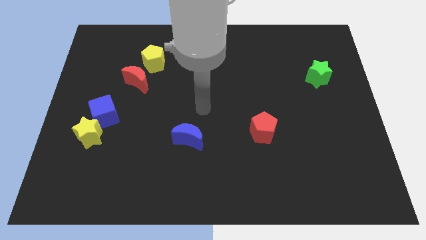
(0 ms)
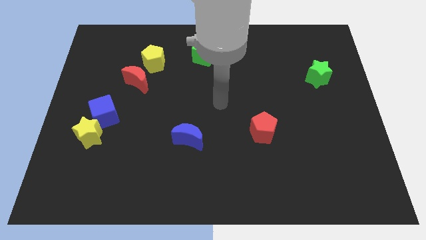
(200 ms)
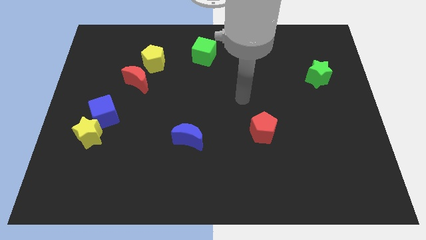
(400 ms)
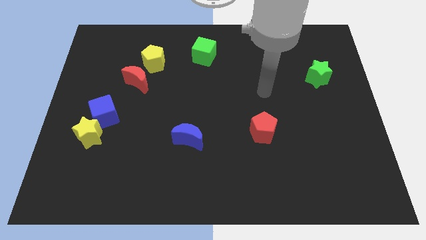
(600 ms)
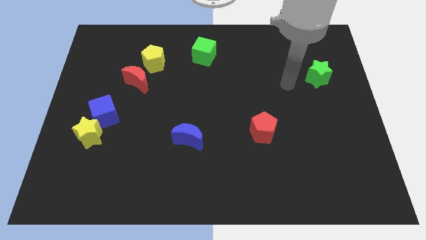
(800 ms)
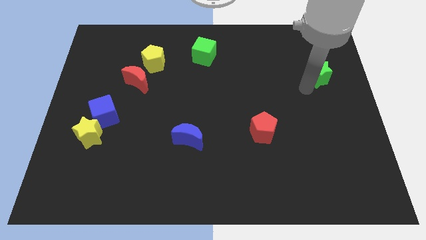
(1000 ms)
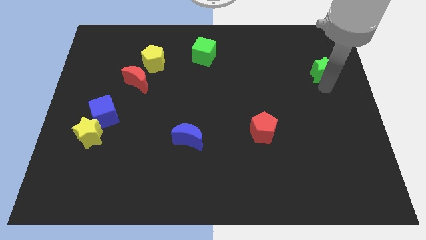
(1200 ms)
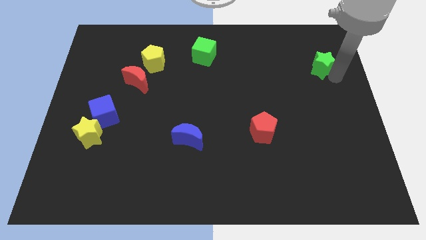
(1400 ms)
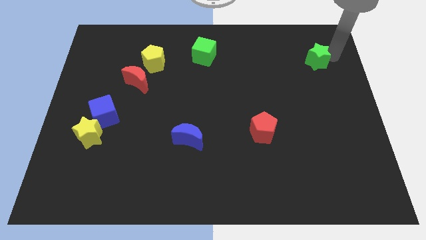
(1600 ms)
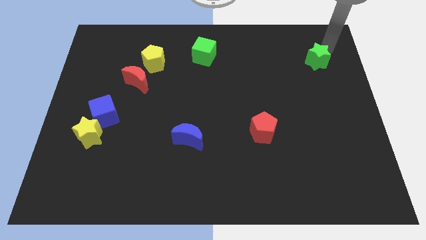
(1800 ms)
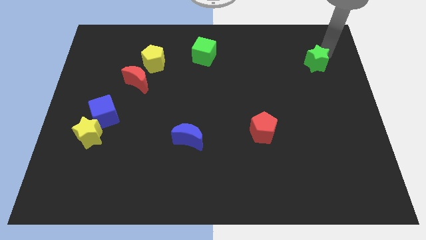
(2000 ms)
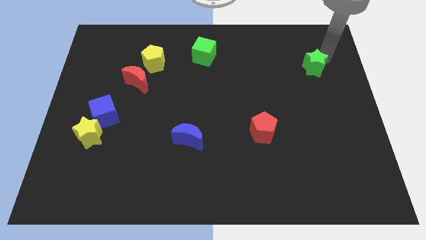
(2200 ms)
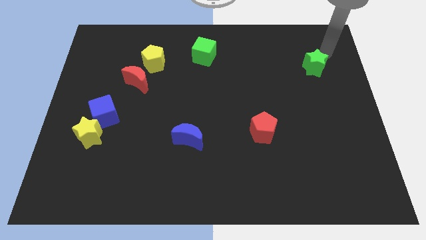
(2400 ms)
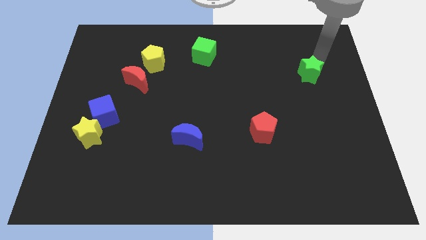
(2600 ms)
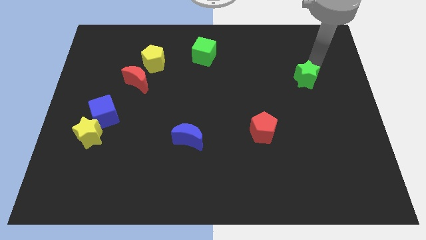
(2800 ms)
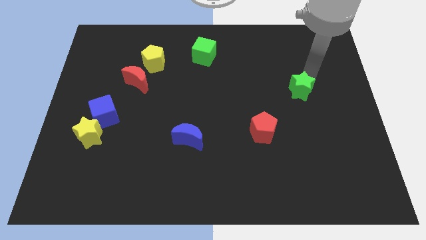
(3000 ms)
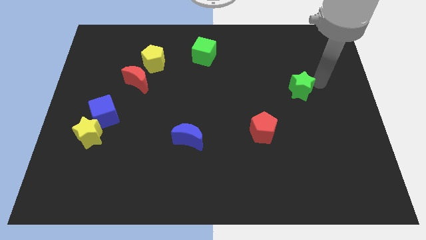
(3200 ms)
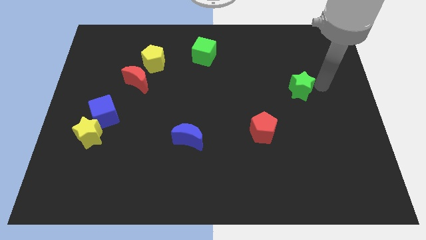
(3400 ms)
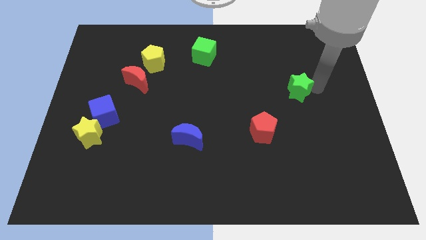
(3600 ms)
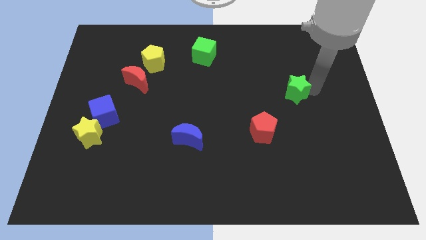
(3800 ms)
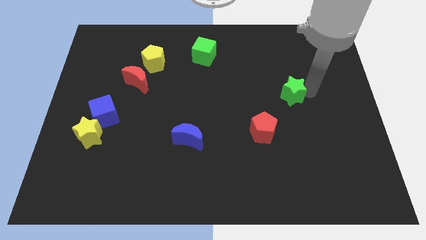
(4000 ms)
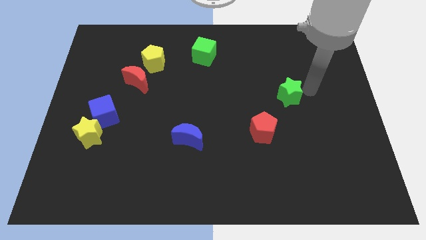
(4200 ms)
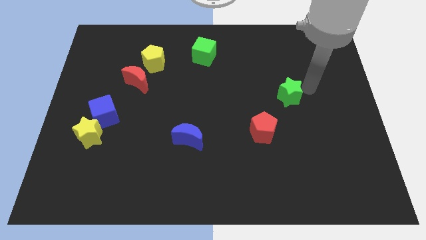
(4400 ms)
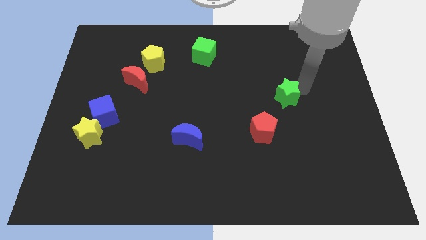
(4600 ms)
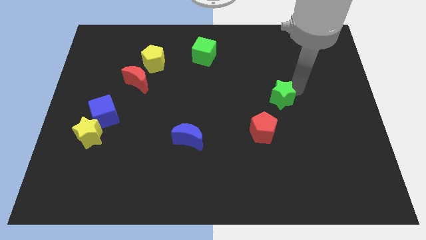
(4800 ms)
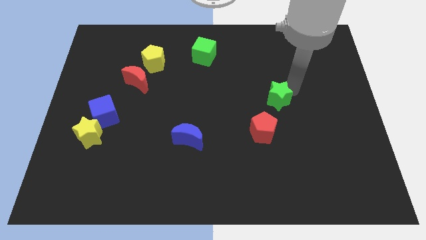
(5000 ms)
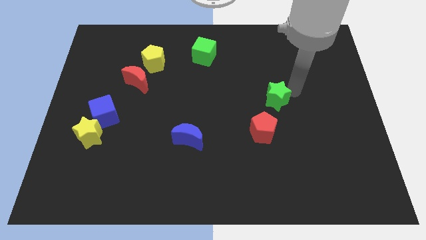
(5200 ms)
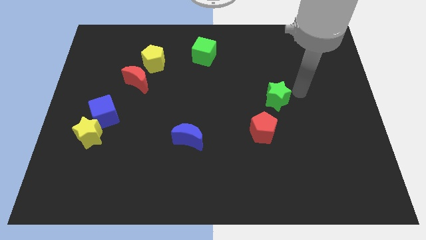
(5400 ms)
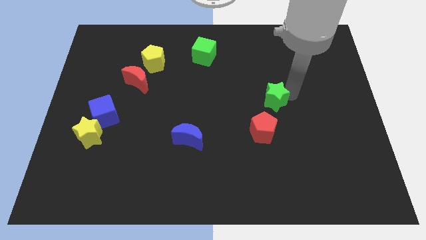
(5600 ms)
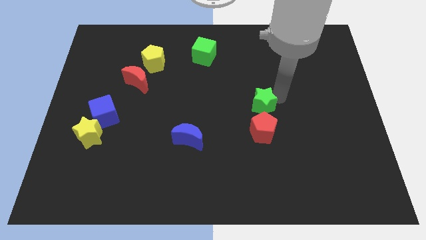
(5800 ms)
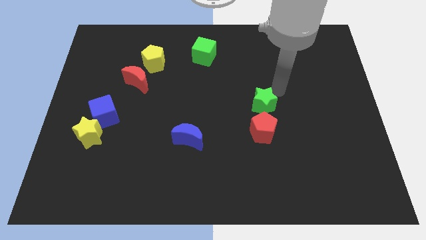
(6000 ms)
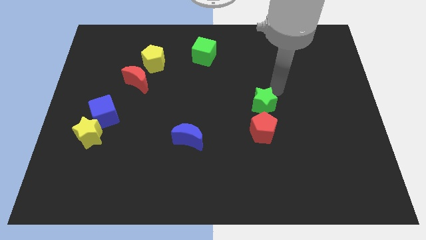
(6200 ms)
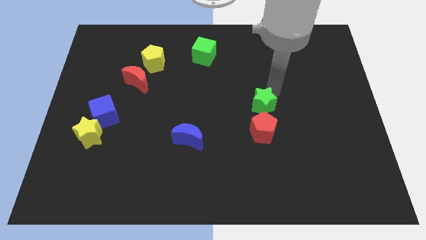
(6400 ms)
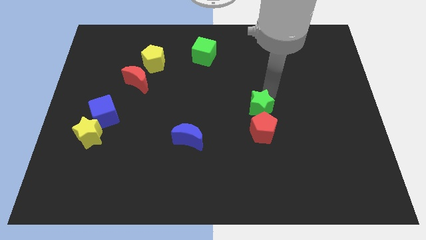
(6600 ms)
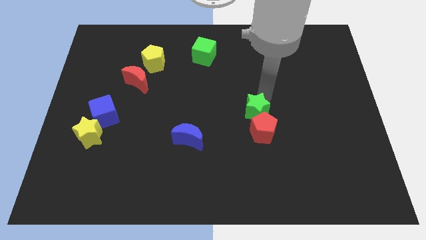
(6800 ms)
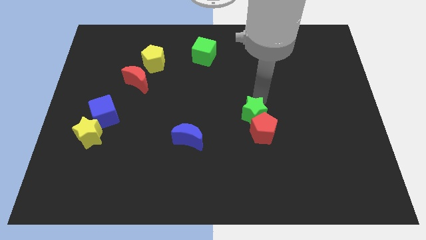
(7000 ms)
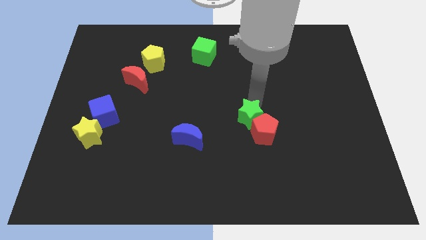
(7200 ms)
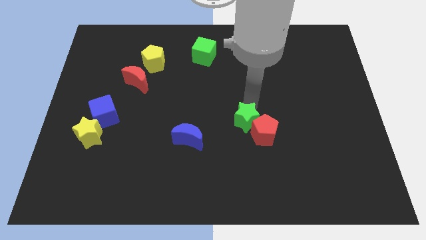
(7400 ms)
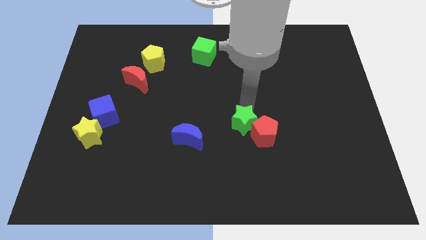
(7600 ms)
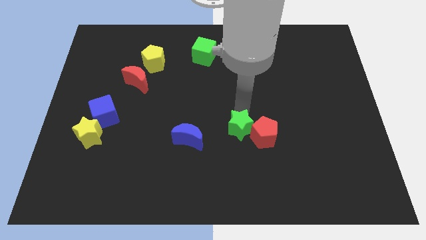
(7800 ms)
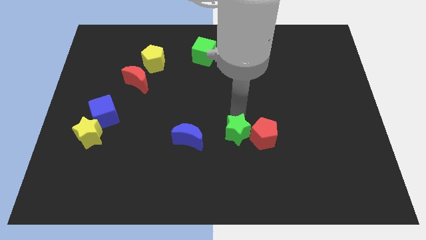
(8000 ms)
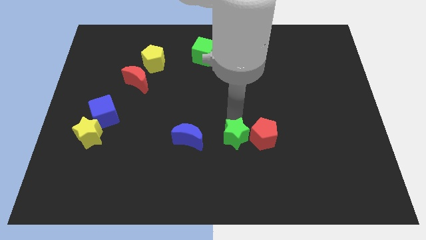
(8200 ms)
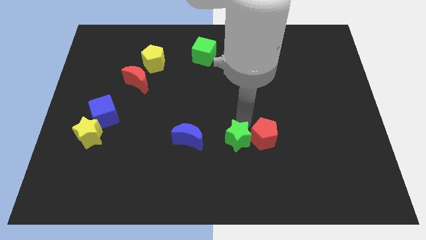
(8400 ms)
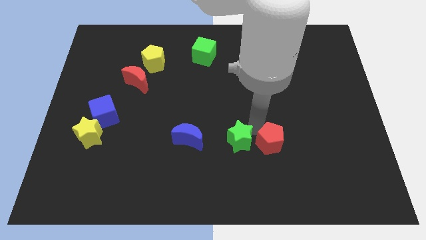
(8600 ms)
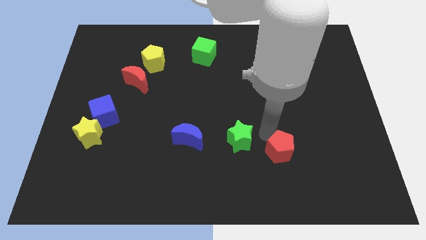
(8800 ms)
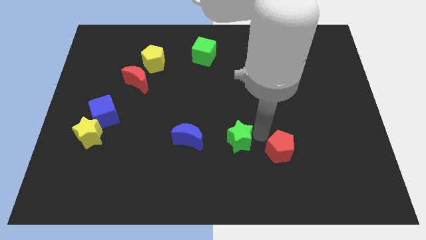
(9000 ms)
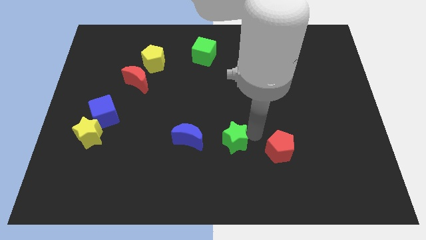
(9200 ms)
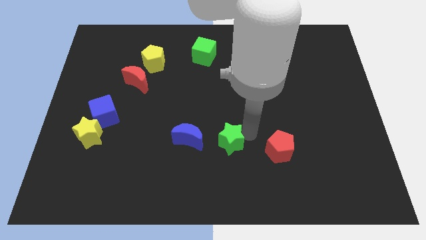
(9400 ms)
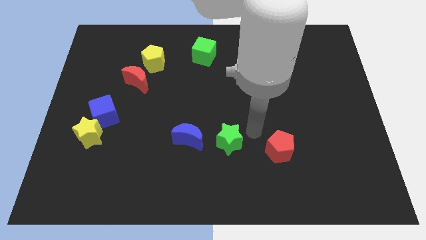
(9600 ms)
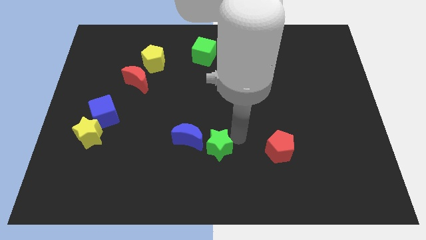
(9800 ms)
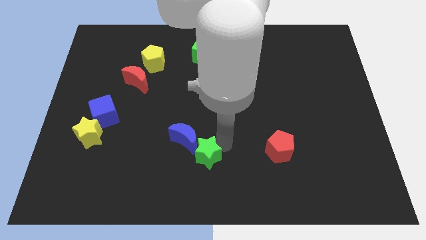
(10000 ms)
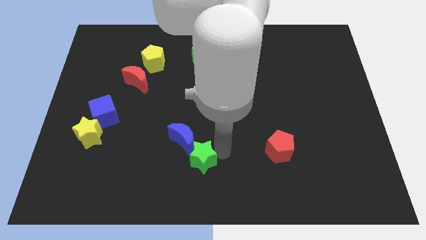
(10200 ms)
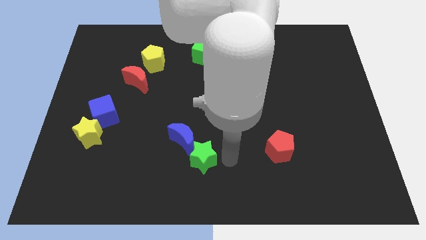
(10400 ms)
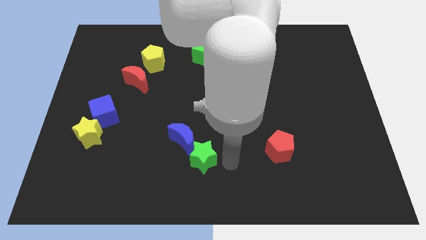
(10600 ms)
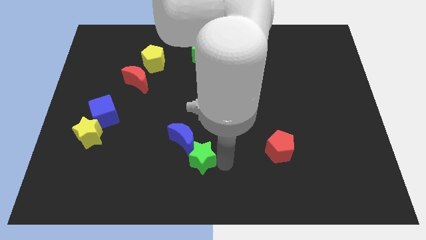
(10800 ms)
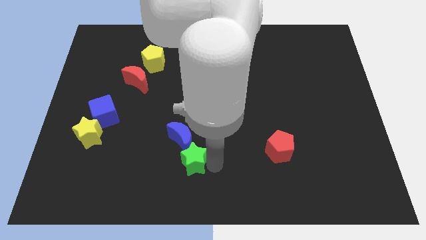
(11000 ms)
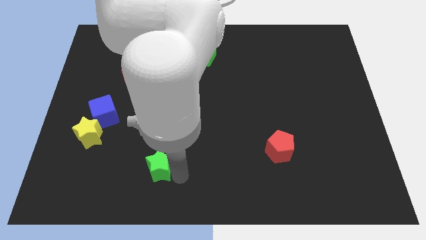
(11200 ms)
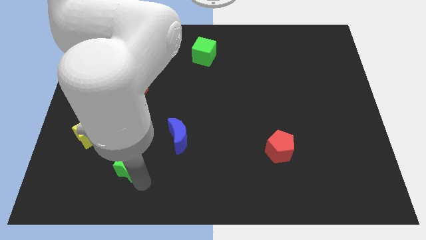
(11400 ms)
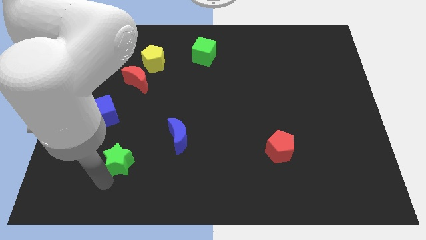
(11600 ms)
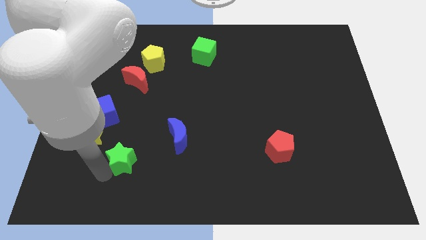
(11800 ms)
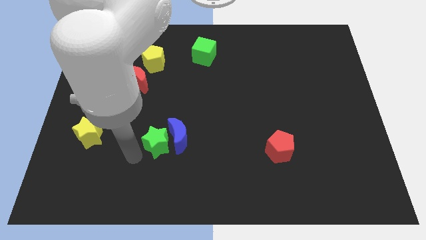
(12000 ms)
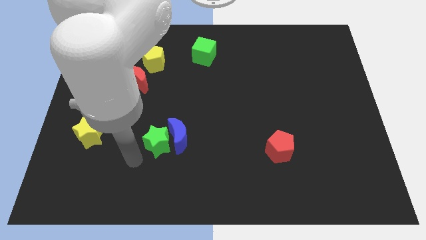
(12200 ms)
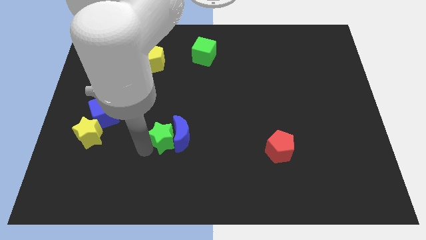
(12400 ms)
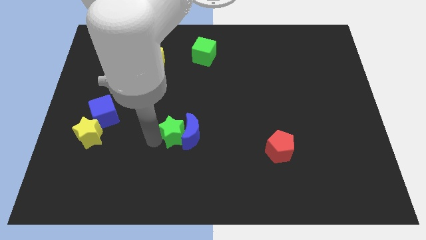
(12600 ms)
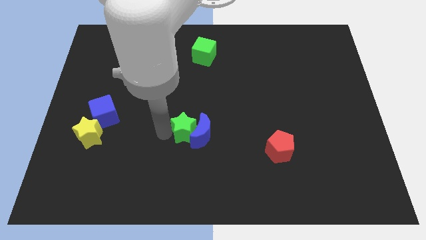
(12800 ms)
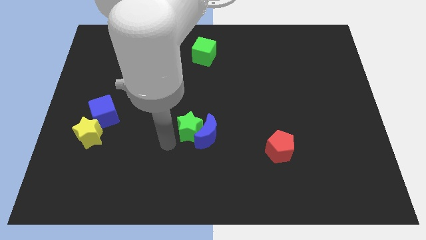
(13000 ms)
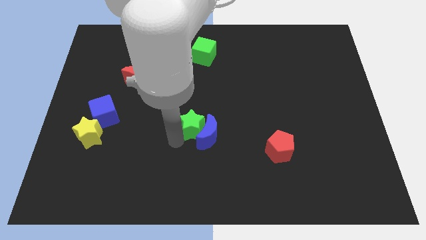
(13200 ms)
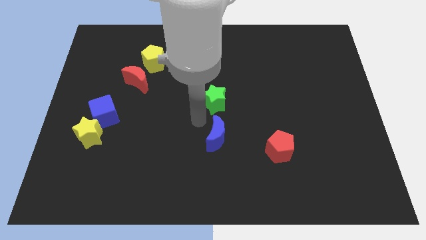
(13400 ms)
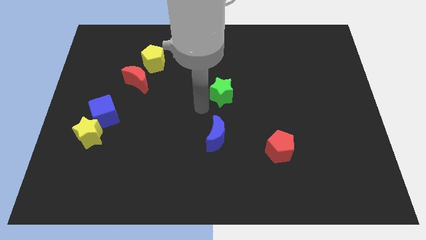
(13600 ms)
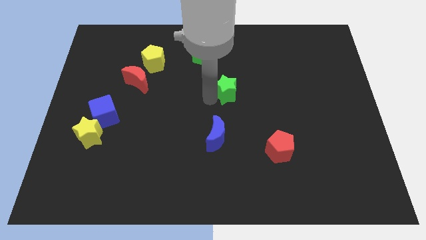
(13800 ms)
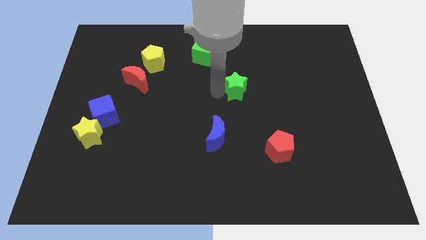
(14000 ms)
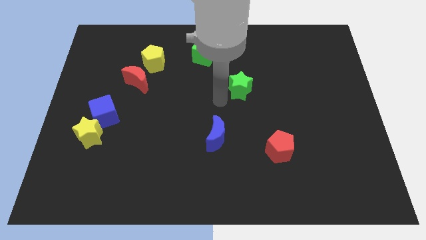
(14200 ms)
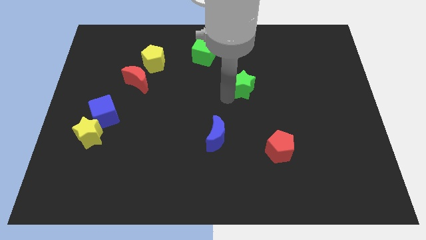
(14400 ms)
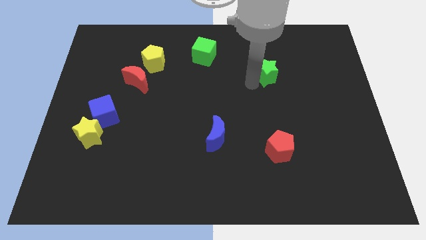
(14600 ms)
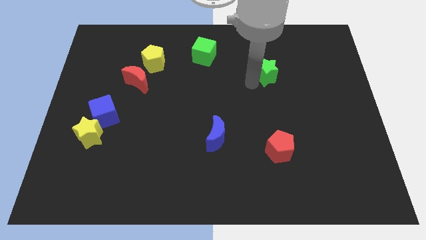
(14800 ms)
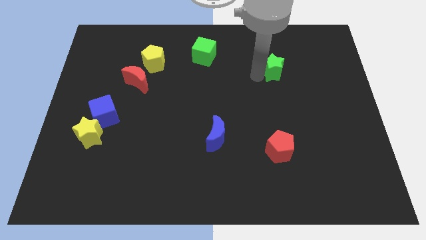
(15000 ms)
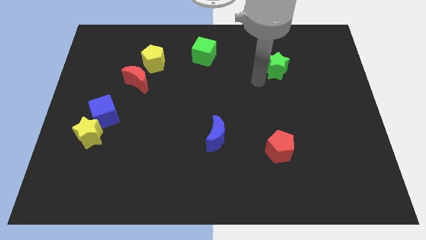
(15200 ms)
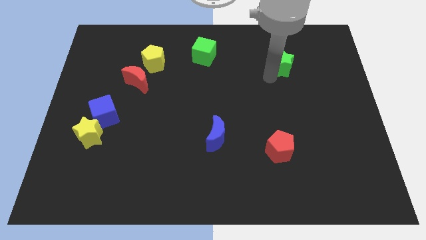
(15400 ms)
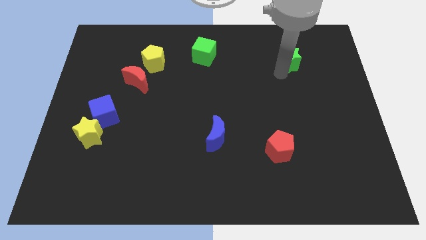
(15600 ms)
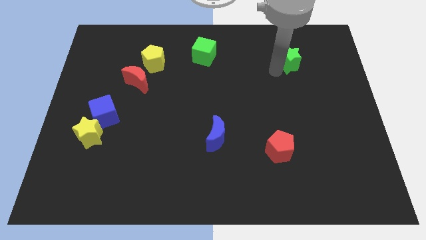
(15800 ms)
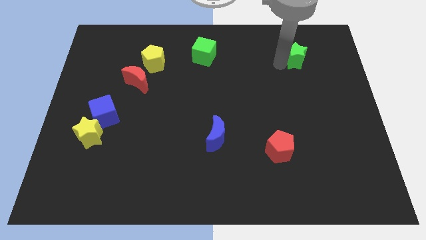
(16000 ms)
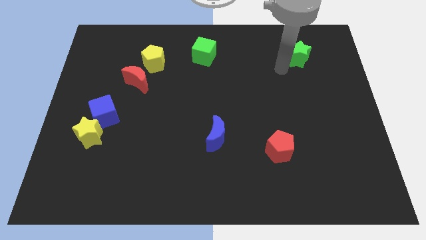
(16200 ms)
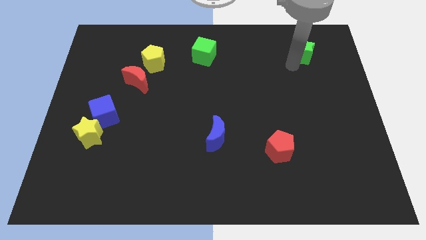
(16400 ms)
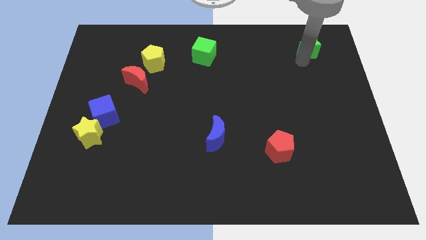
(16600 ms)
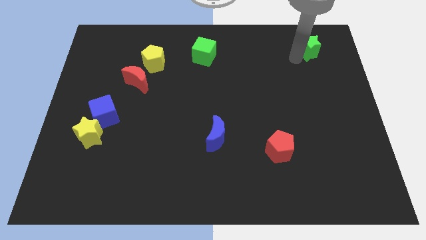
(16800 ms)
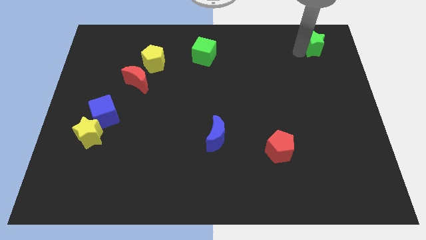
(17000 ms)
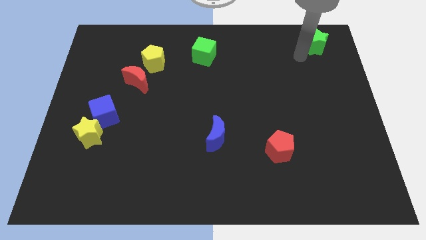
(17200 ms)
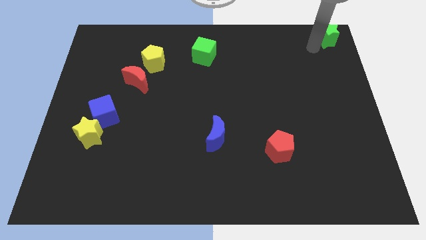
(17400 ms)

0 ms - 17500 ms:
push the green star to the top right corner
